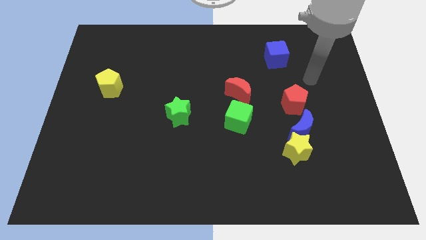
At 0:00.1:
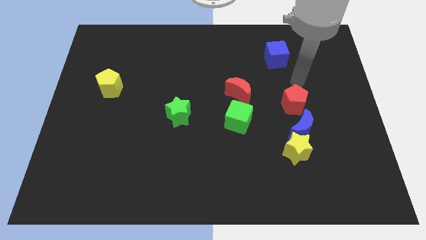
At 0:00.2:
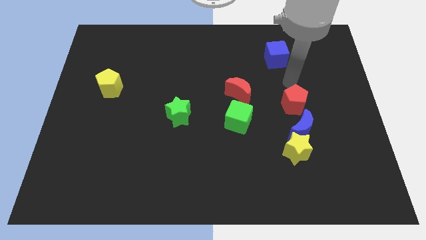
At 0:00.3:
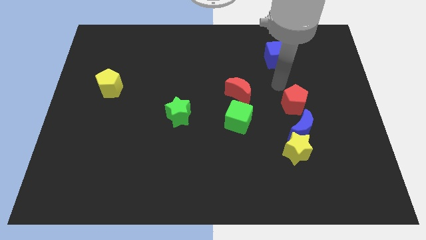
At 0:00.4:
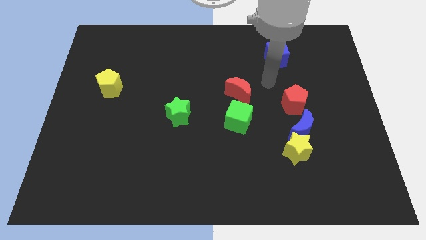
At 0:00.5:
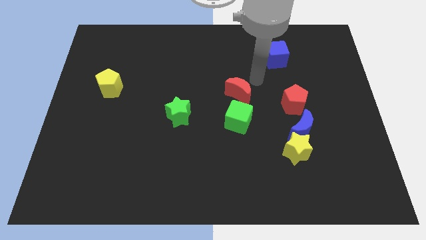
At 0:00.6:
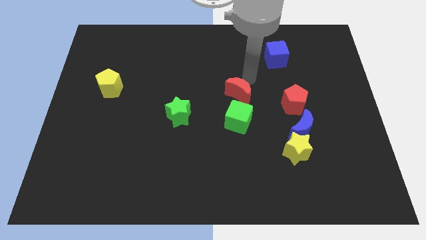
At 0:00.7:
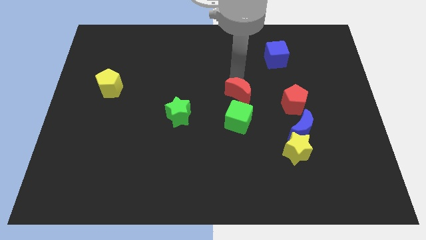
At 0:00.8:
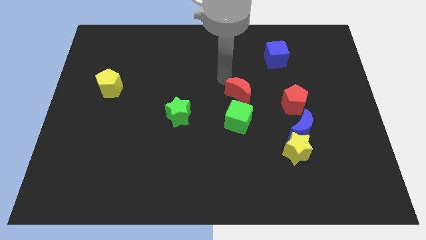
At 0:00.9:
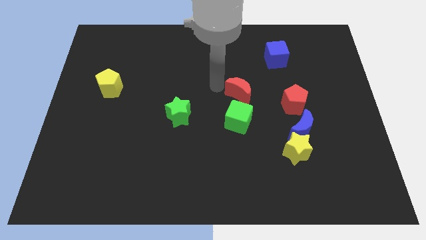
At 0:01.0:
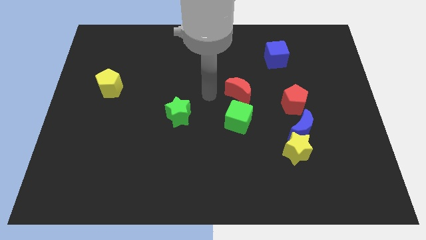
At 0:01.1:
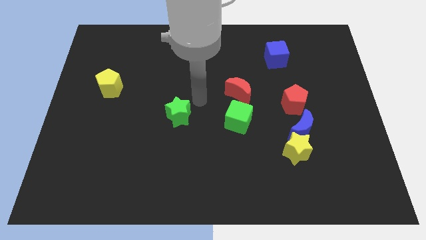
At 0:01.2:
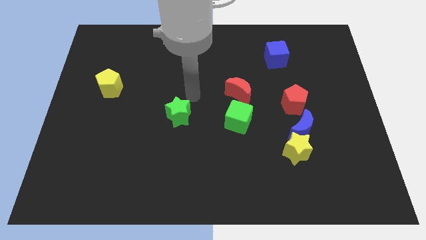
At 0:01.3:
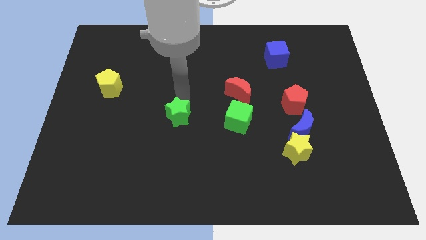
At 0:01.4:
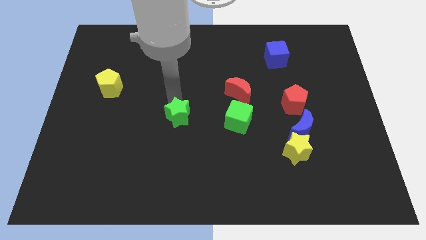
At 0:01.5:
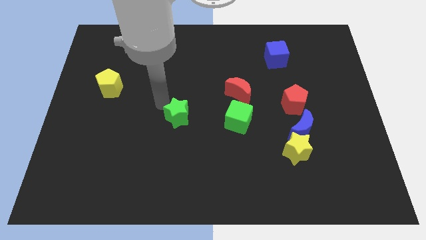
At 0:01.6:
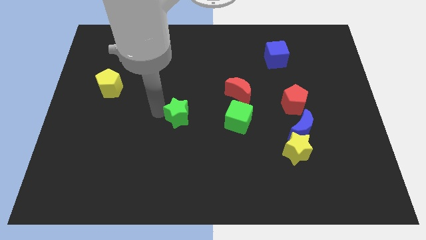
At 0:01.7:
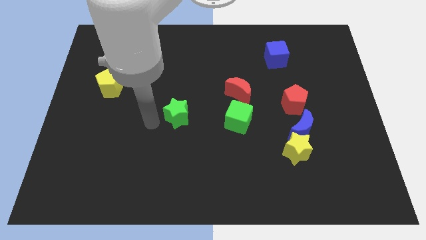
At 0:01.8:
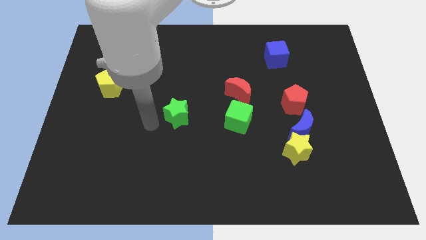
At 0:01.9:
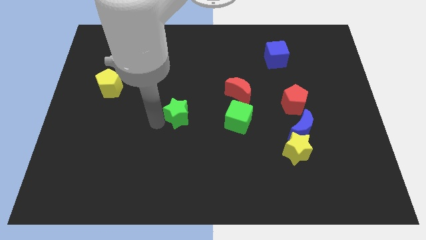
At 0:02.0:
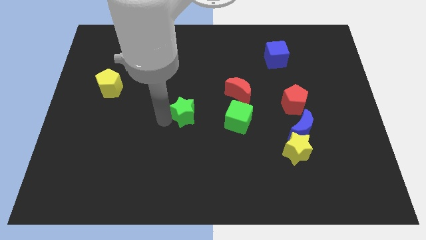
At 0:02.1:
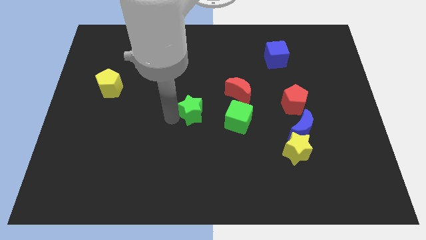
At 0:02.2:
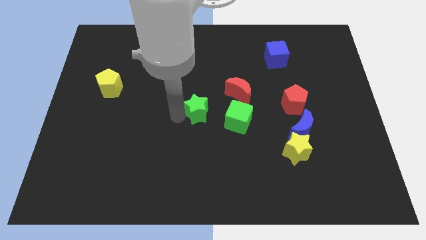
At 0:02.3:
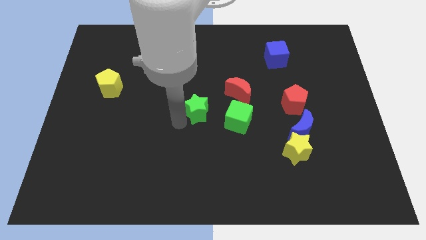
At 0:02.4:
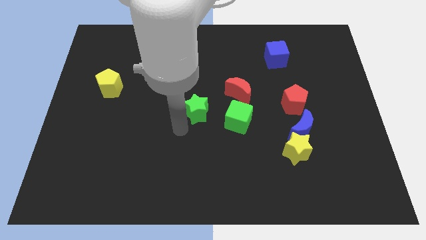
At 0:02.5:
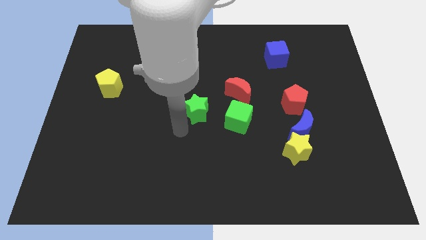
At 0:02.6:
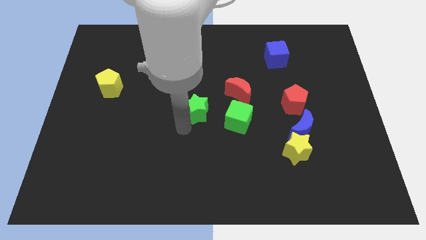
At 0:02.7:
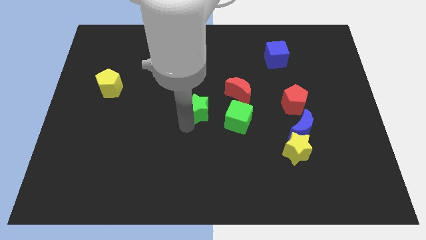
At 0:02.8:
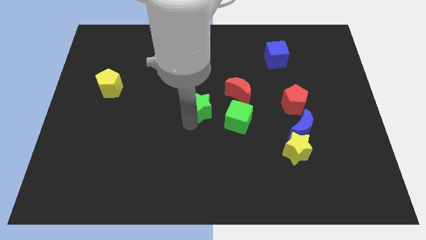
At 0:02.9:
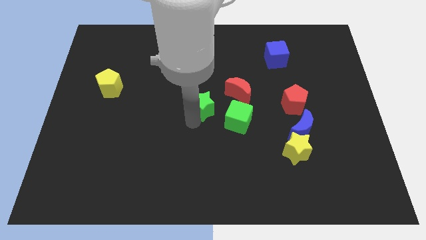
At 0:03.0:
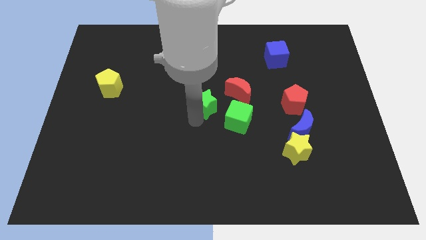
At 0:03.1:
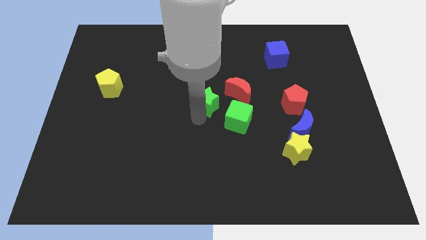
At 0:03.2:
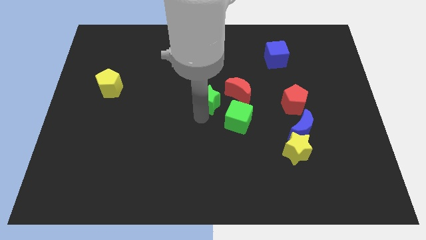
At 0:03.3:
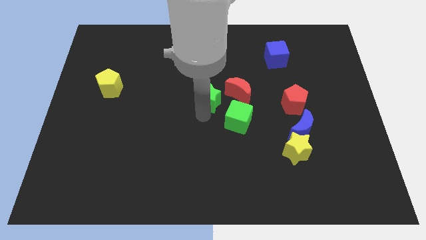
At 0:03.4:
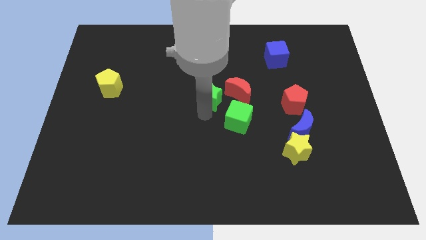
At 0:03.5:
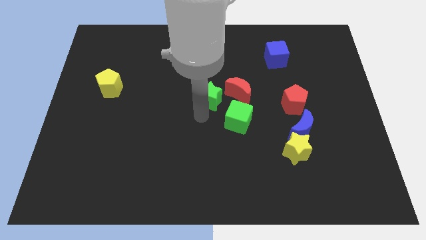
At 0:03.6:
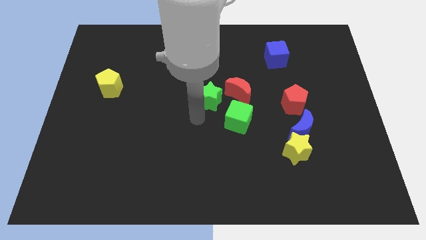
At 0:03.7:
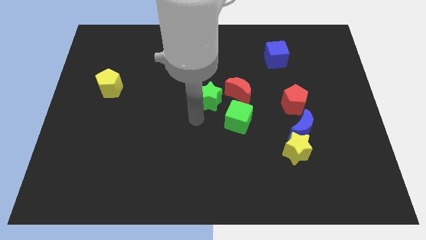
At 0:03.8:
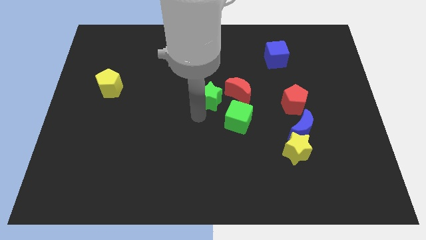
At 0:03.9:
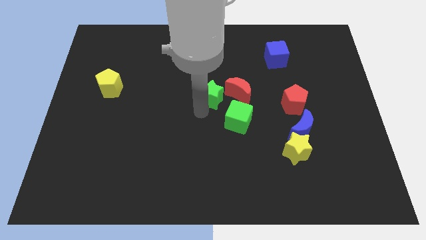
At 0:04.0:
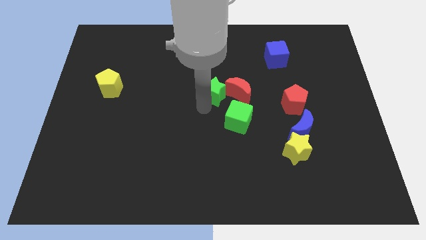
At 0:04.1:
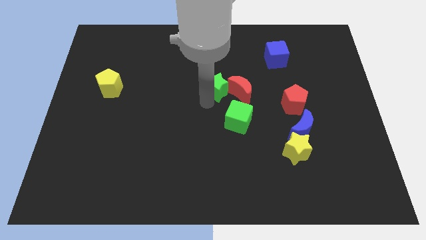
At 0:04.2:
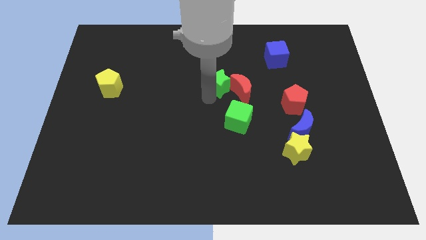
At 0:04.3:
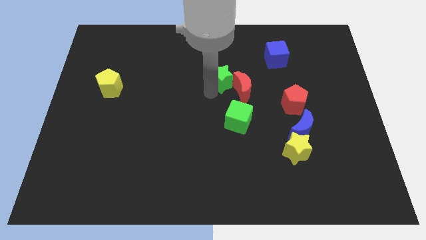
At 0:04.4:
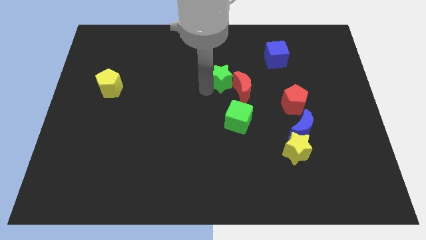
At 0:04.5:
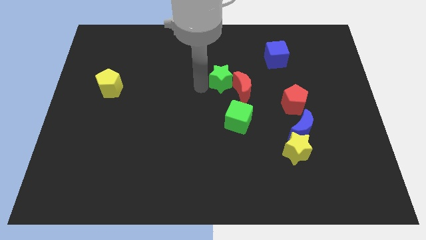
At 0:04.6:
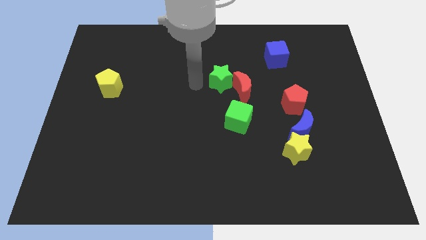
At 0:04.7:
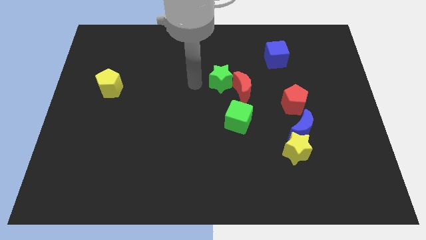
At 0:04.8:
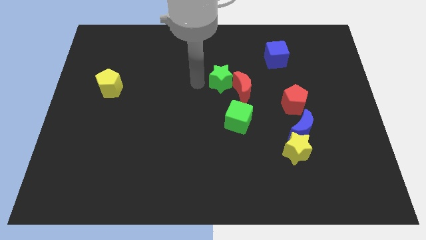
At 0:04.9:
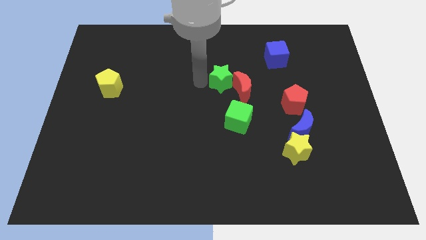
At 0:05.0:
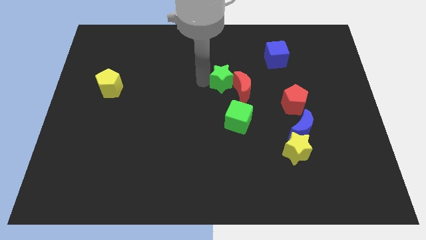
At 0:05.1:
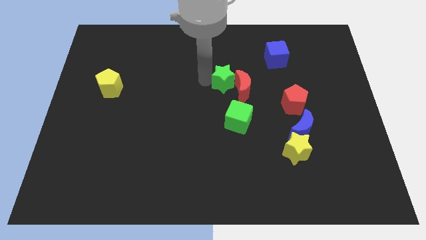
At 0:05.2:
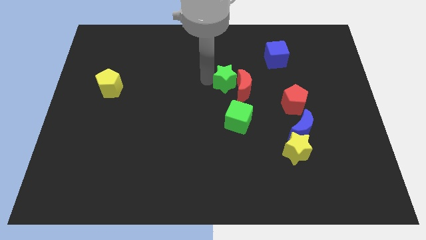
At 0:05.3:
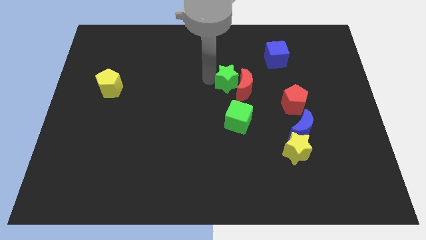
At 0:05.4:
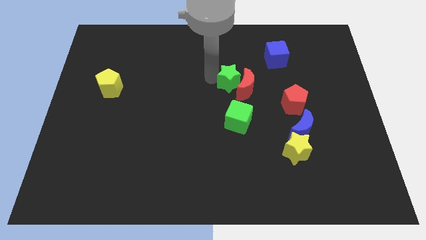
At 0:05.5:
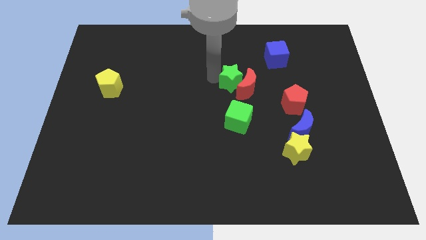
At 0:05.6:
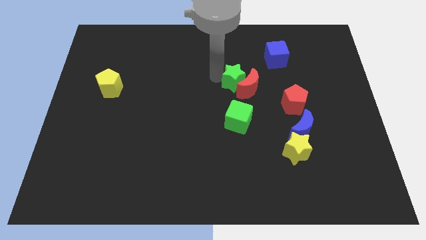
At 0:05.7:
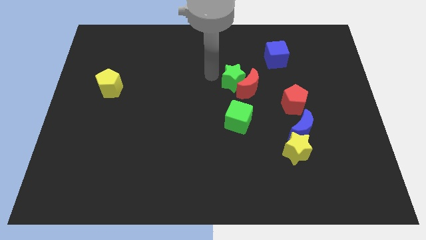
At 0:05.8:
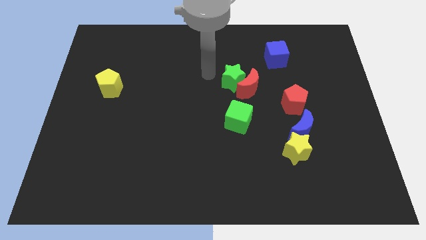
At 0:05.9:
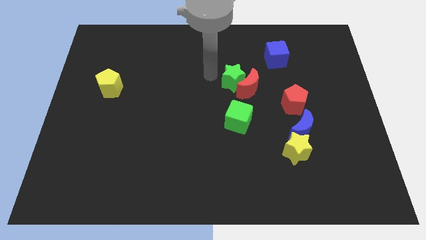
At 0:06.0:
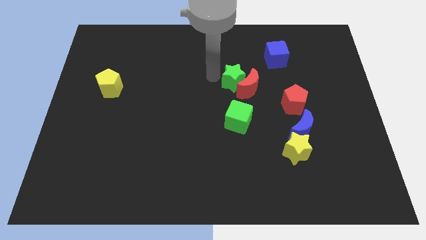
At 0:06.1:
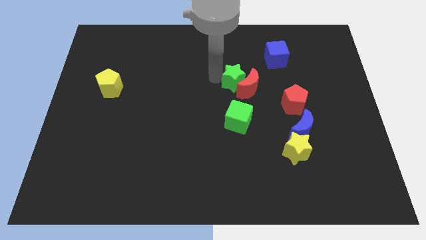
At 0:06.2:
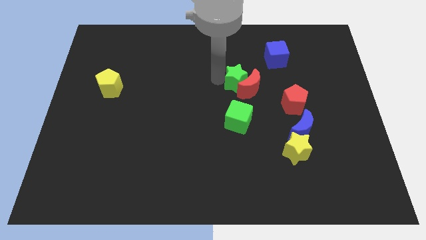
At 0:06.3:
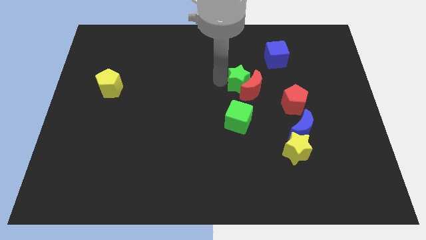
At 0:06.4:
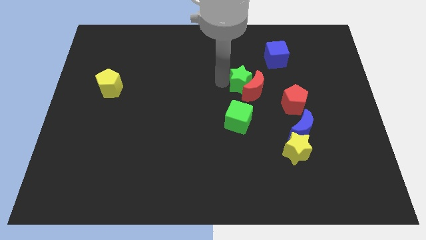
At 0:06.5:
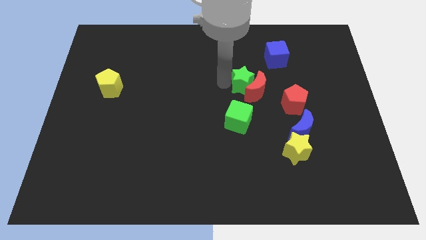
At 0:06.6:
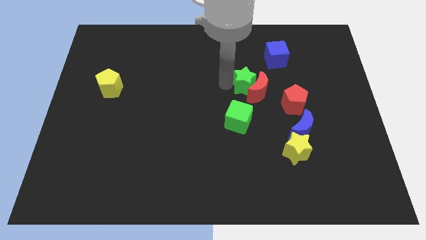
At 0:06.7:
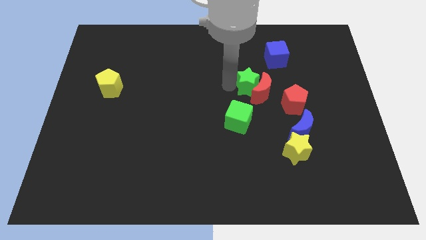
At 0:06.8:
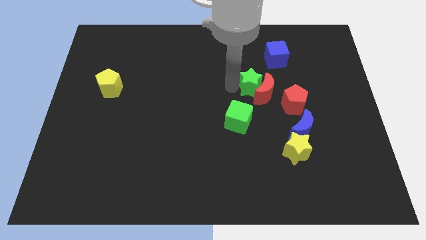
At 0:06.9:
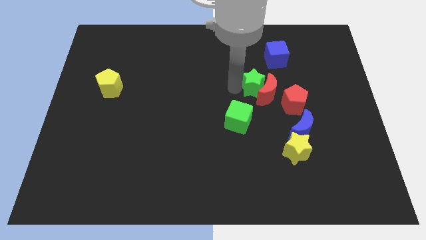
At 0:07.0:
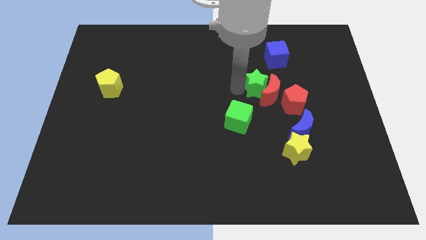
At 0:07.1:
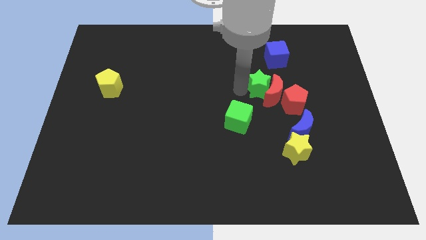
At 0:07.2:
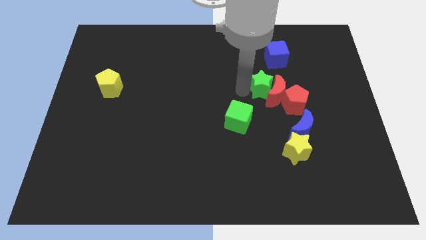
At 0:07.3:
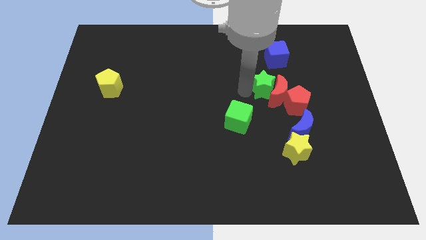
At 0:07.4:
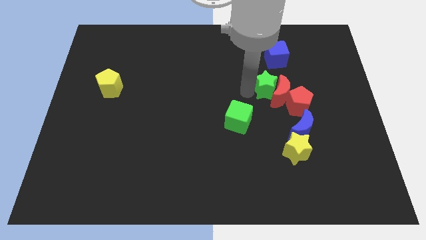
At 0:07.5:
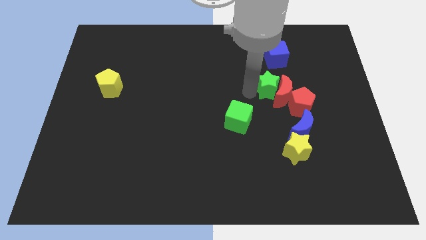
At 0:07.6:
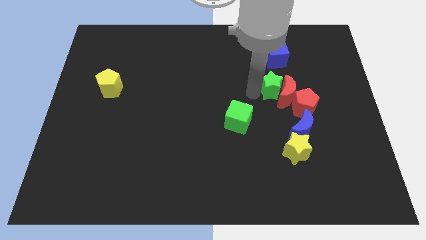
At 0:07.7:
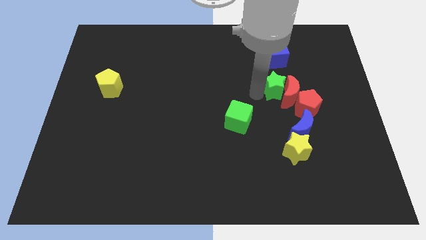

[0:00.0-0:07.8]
slide the green star to the right

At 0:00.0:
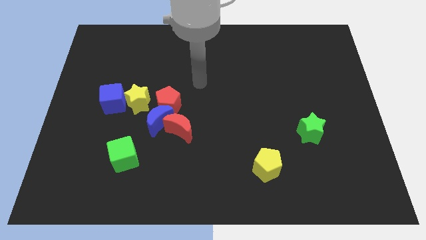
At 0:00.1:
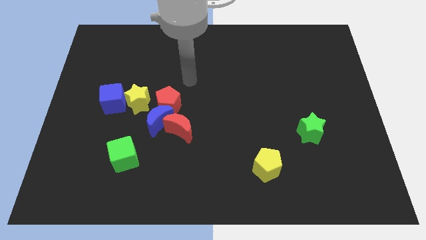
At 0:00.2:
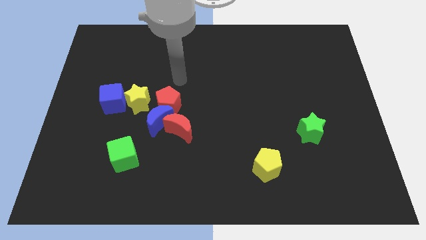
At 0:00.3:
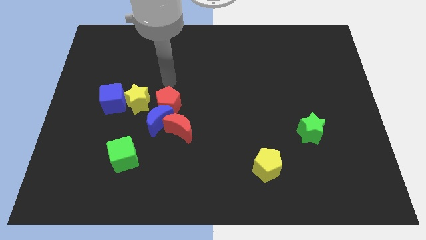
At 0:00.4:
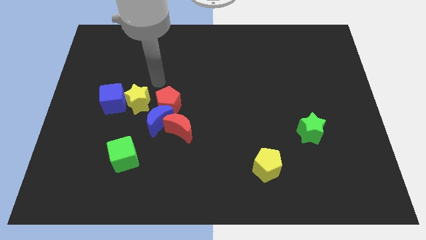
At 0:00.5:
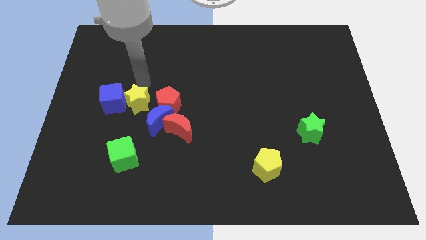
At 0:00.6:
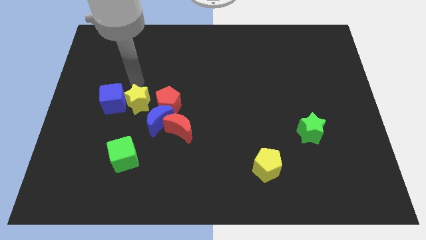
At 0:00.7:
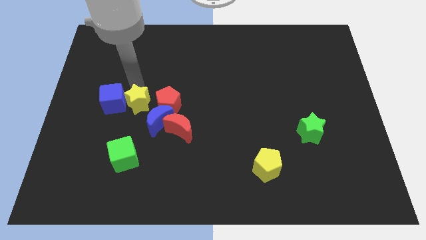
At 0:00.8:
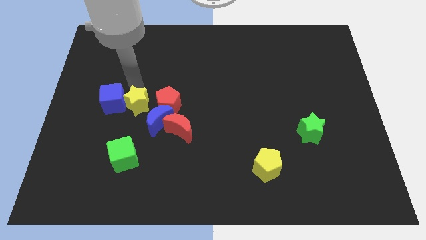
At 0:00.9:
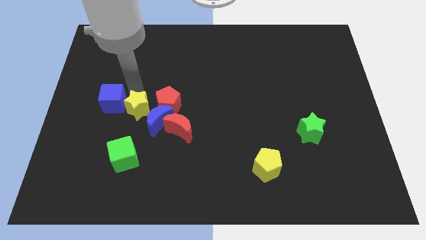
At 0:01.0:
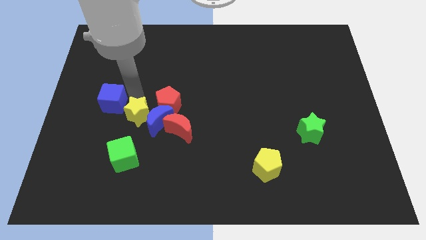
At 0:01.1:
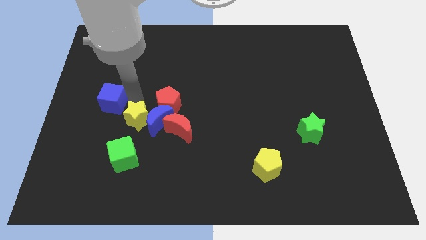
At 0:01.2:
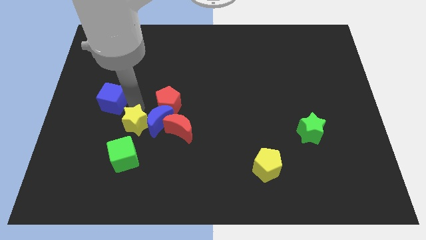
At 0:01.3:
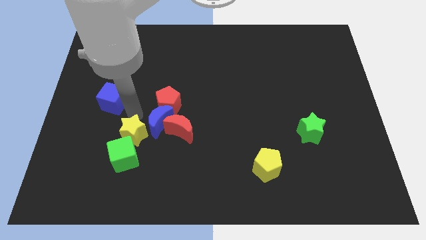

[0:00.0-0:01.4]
move the yellow star somewhat down
